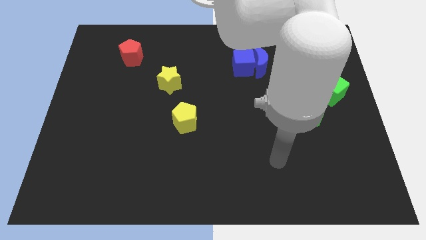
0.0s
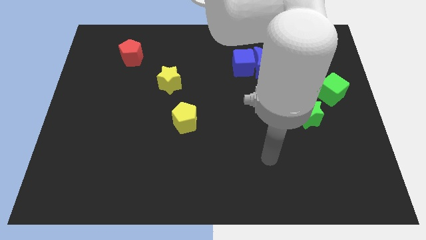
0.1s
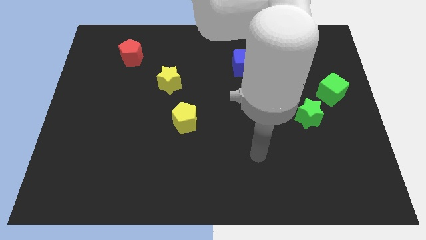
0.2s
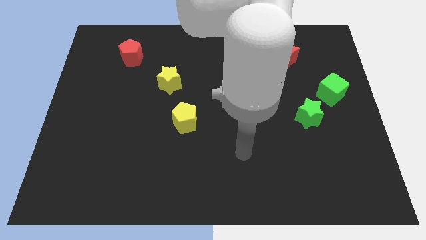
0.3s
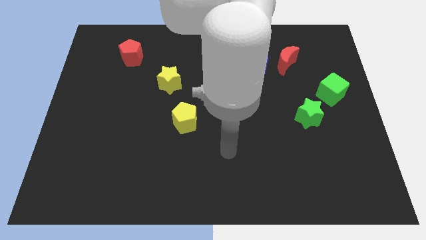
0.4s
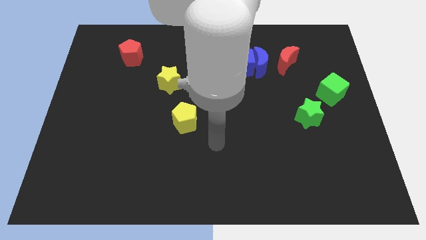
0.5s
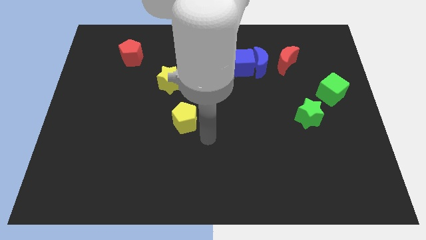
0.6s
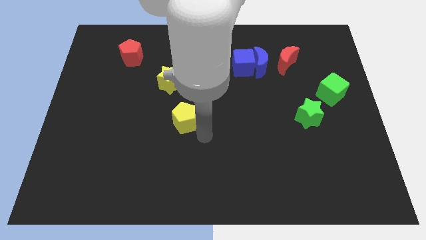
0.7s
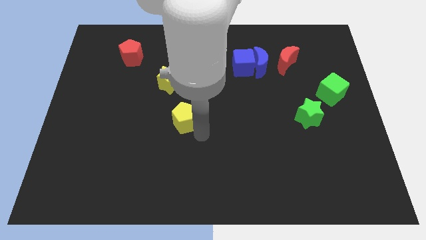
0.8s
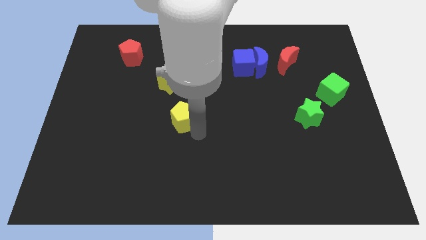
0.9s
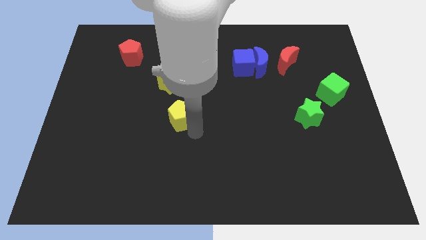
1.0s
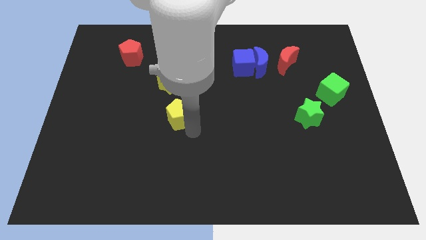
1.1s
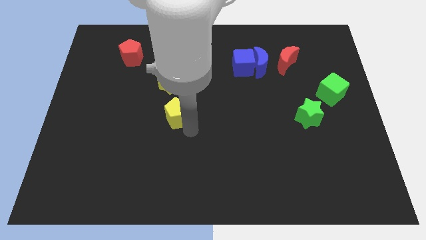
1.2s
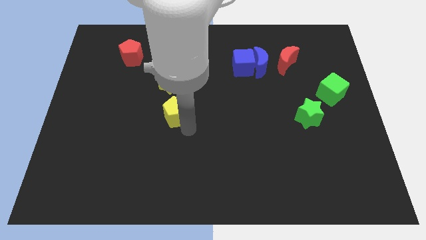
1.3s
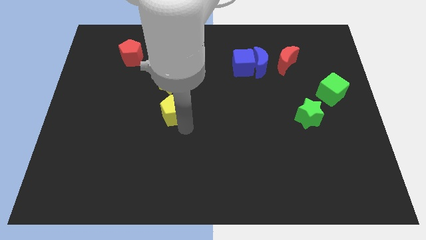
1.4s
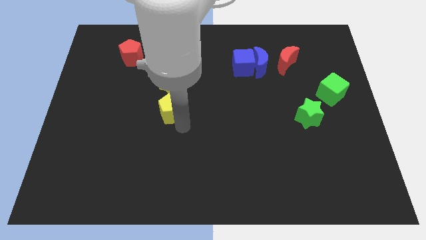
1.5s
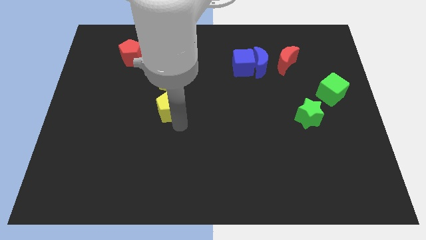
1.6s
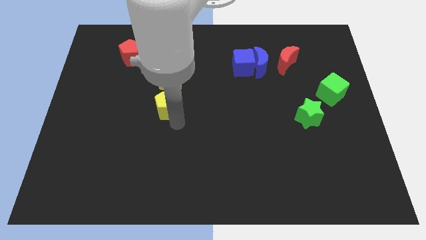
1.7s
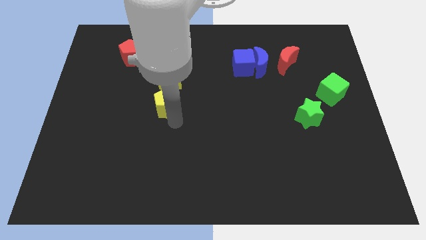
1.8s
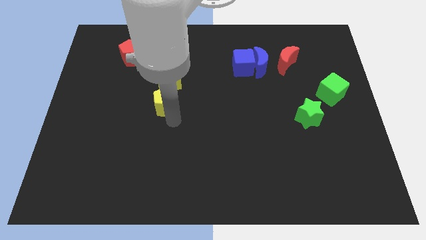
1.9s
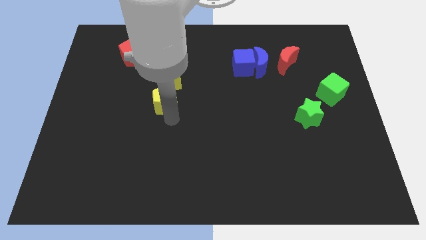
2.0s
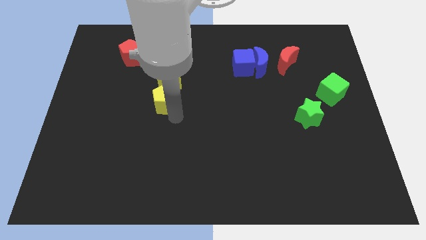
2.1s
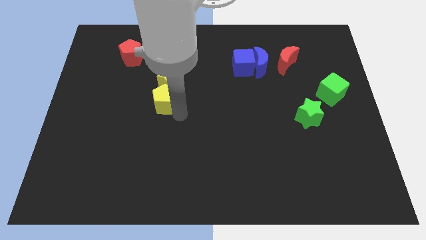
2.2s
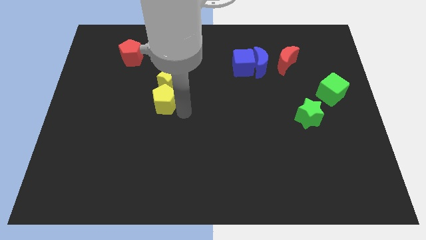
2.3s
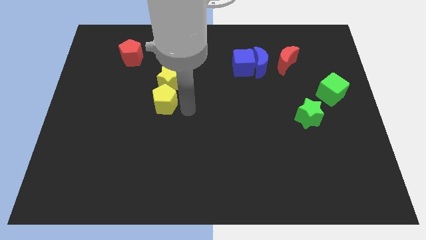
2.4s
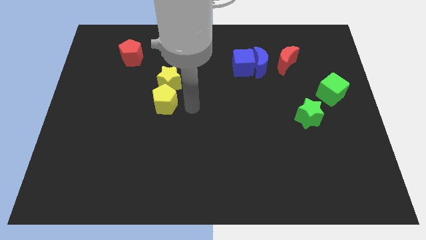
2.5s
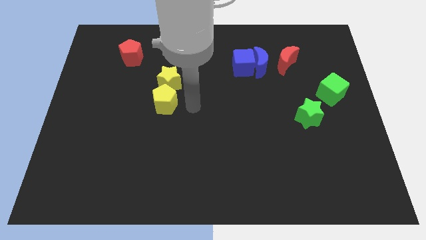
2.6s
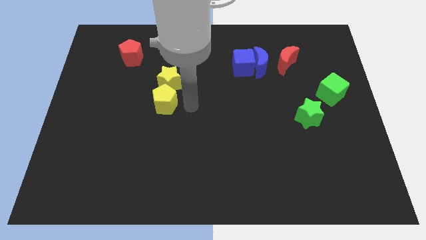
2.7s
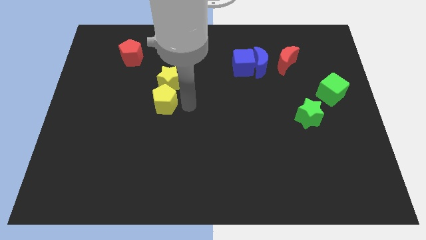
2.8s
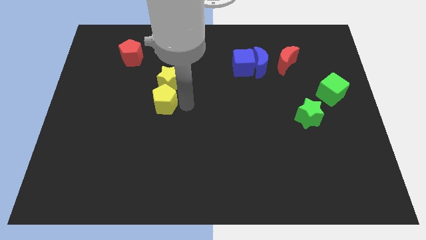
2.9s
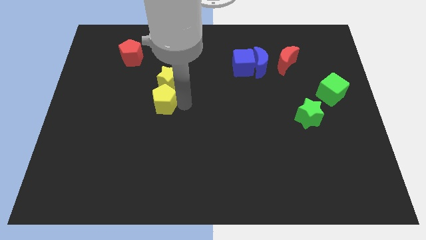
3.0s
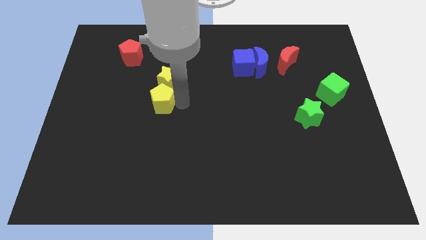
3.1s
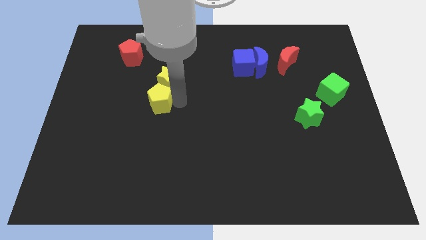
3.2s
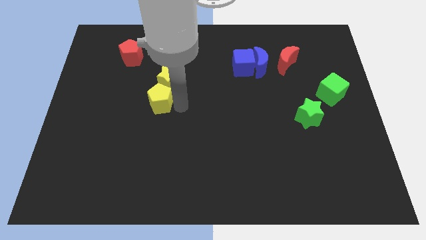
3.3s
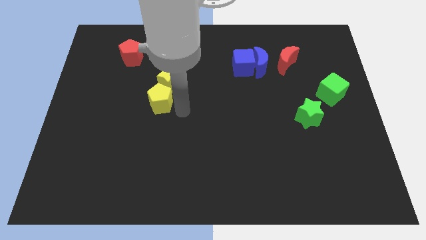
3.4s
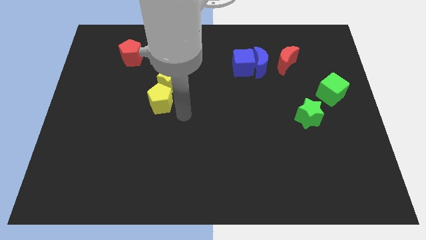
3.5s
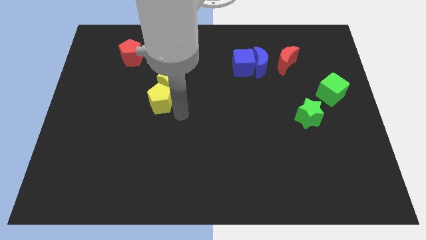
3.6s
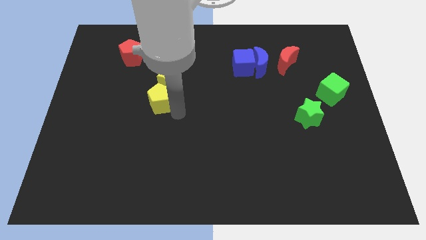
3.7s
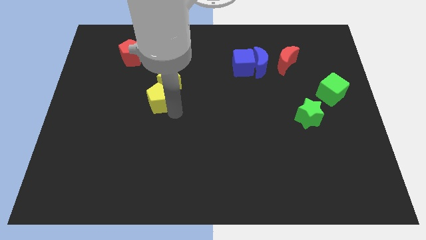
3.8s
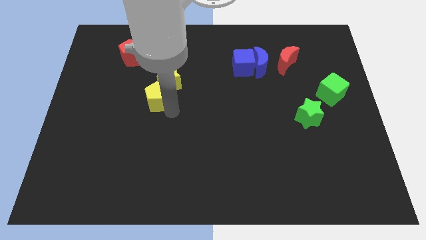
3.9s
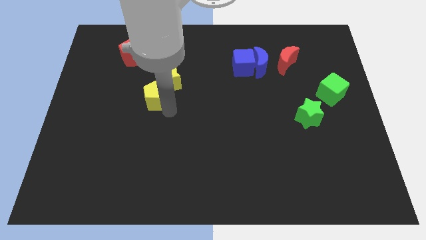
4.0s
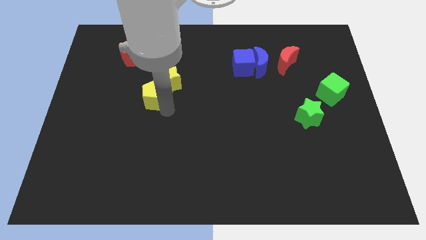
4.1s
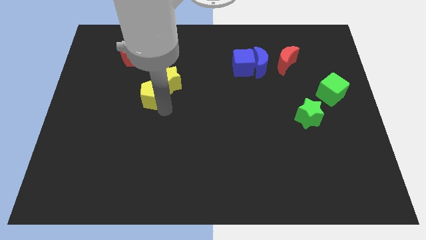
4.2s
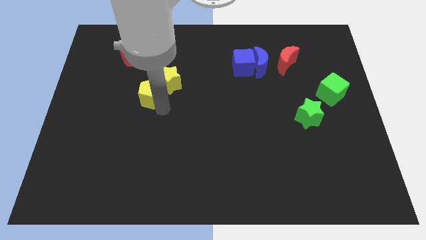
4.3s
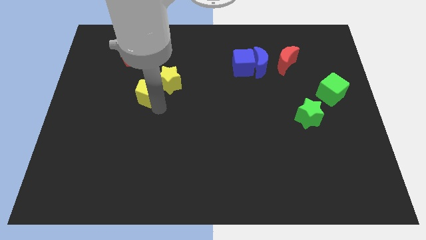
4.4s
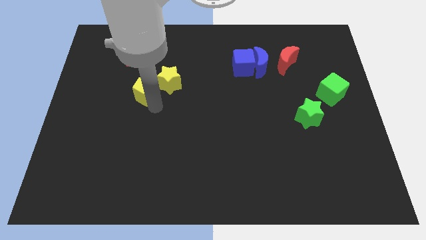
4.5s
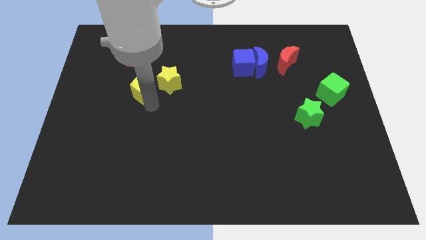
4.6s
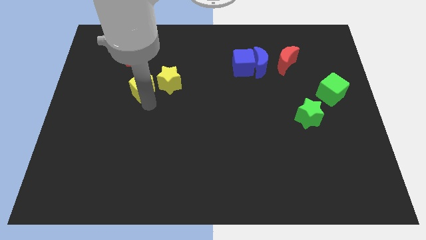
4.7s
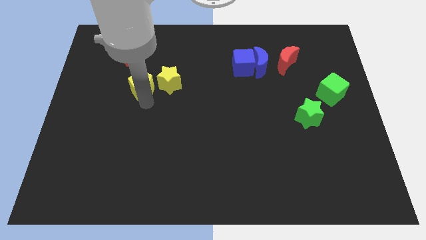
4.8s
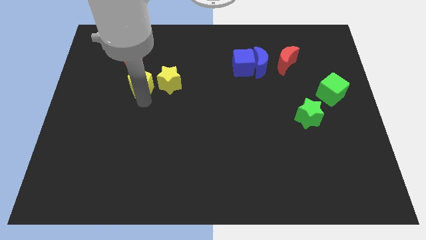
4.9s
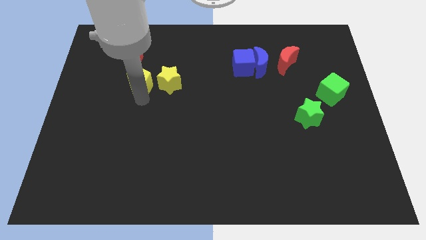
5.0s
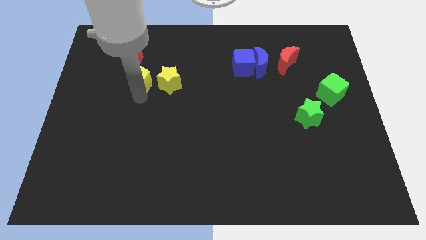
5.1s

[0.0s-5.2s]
push the yellow pentagon to the bottom right side of the red pentagon

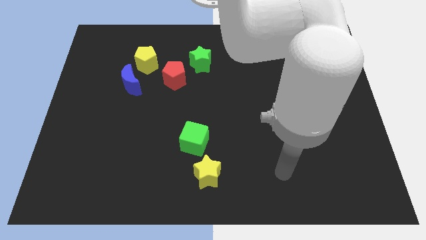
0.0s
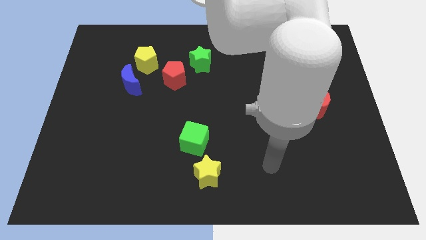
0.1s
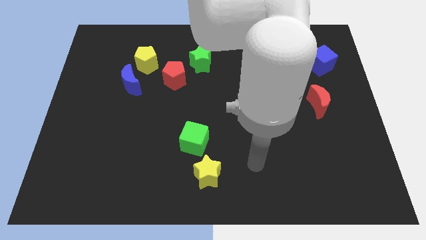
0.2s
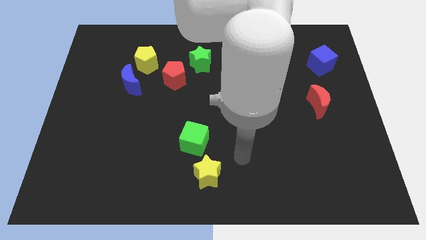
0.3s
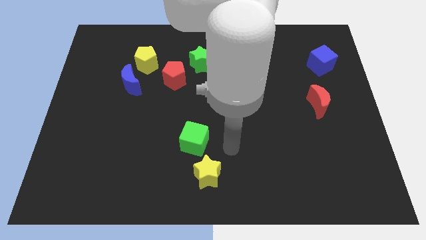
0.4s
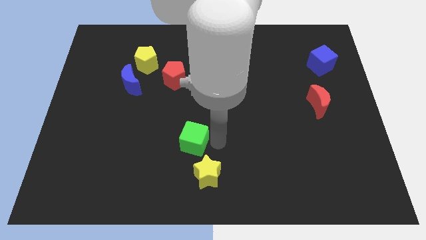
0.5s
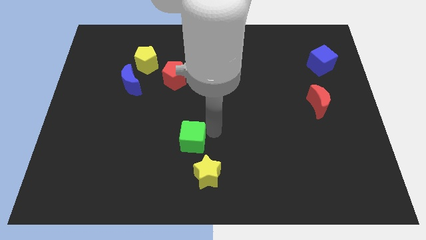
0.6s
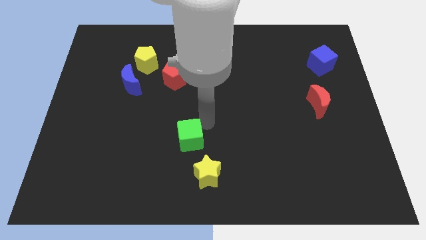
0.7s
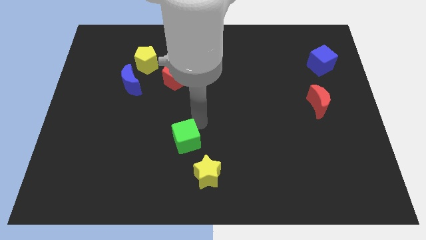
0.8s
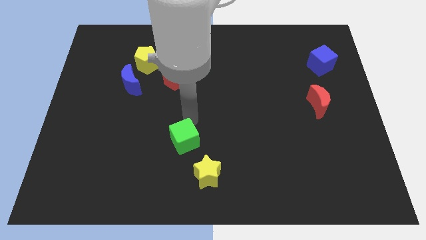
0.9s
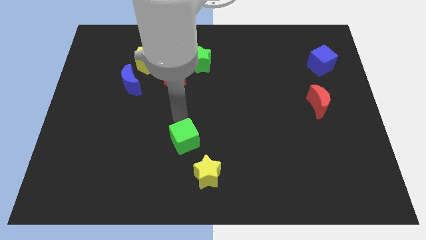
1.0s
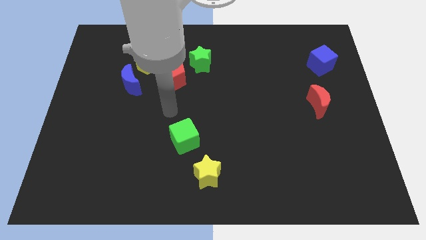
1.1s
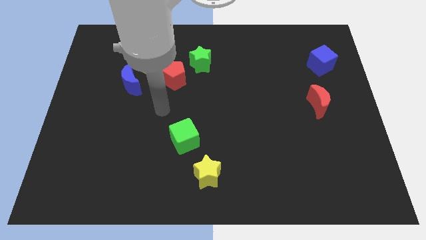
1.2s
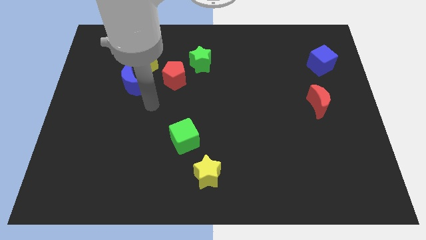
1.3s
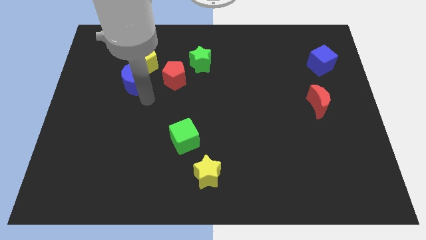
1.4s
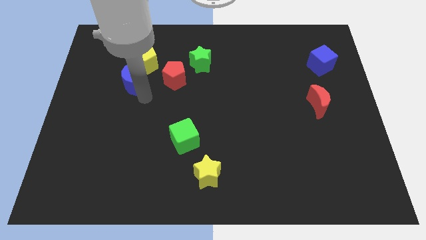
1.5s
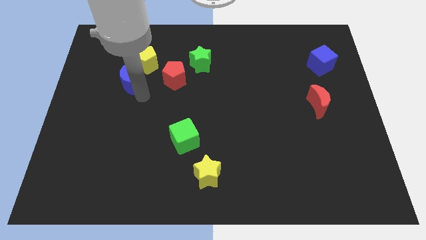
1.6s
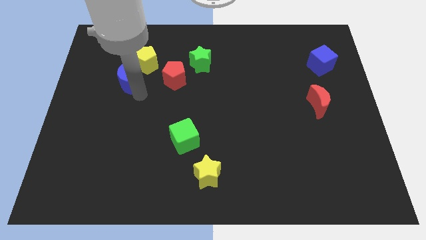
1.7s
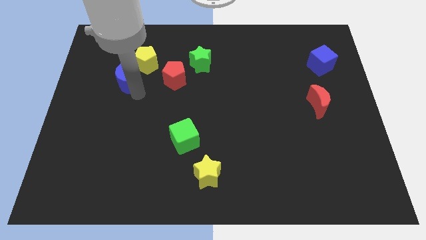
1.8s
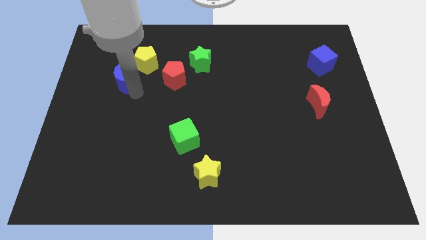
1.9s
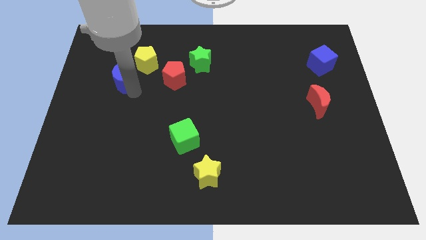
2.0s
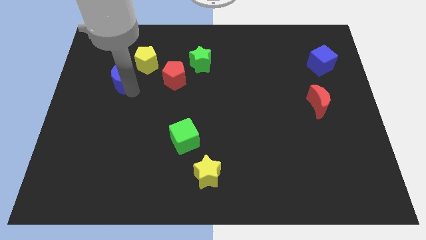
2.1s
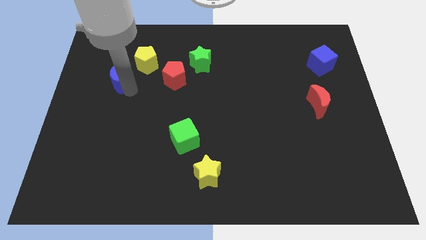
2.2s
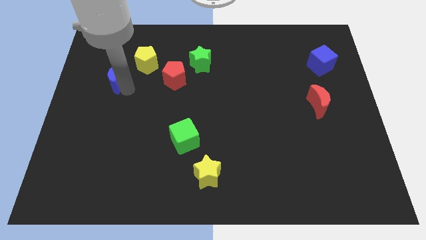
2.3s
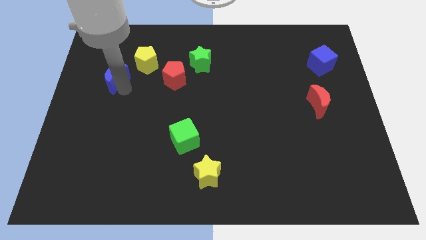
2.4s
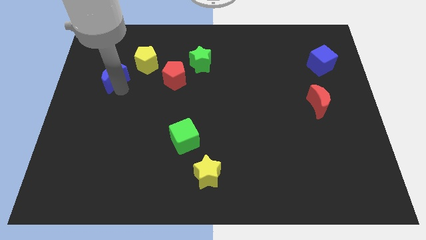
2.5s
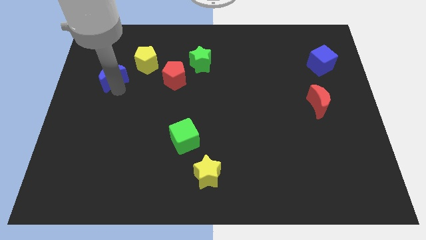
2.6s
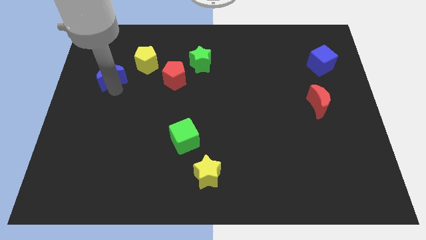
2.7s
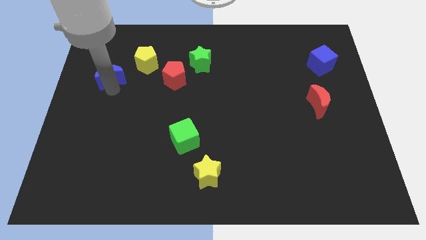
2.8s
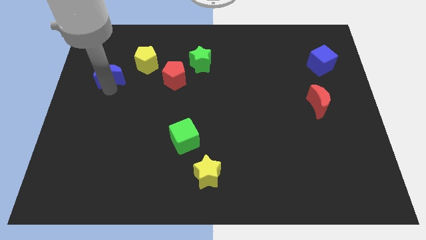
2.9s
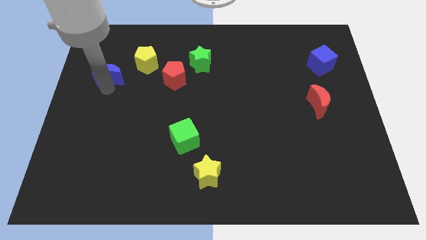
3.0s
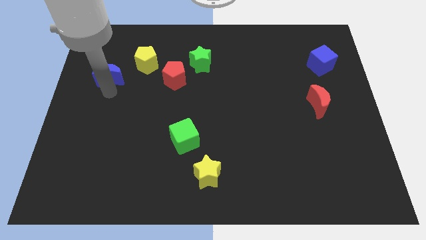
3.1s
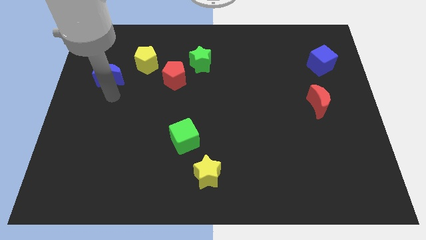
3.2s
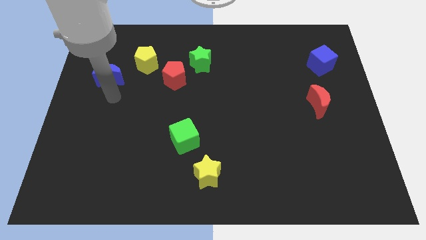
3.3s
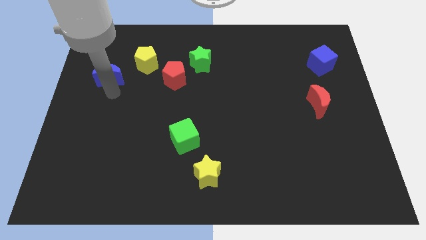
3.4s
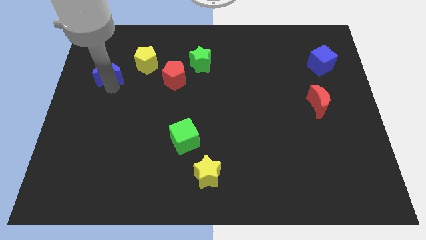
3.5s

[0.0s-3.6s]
put the blue moon to the left of the yellow pentagon
